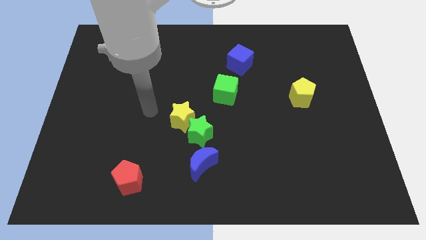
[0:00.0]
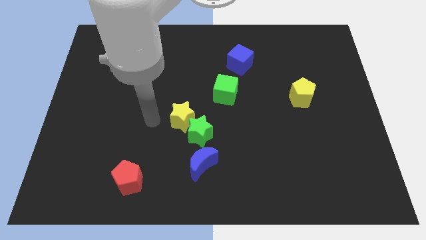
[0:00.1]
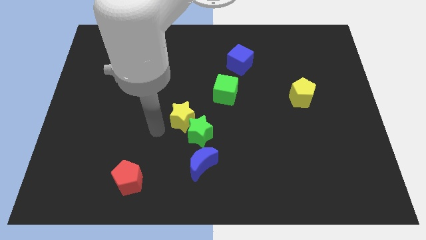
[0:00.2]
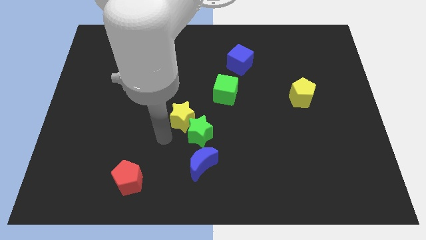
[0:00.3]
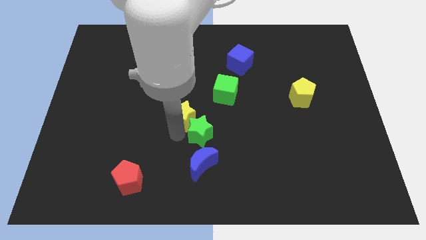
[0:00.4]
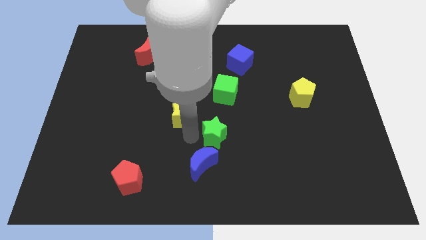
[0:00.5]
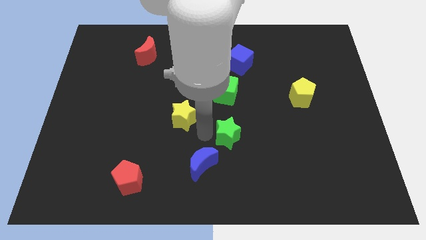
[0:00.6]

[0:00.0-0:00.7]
separate the yellow star from the green star

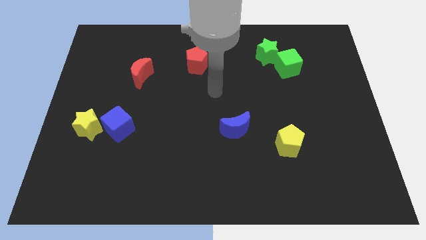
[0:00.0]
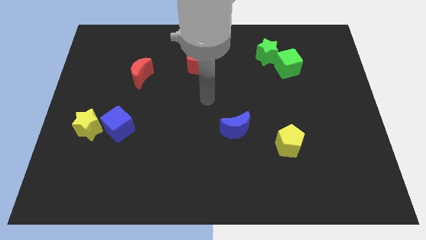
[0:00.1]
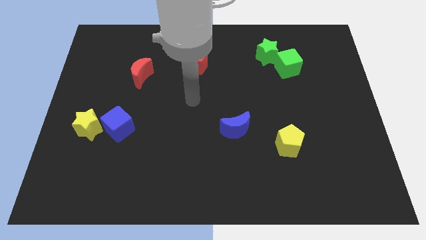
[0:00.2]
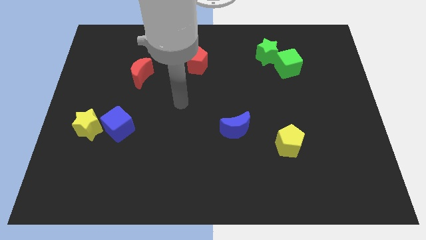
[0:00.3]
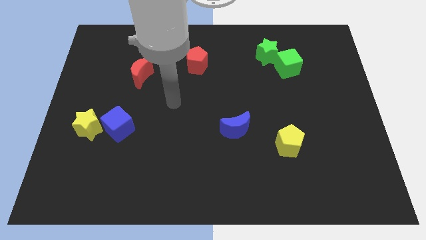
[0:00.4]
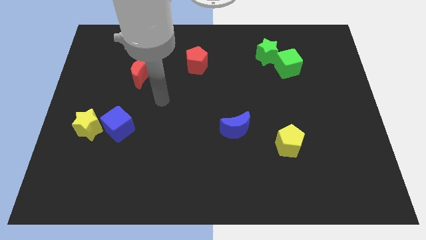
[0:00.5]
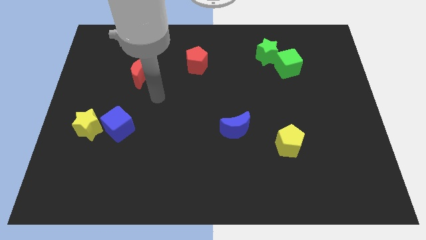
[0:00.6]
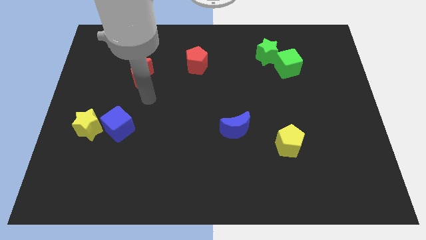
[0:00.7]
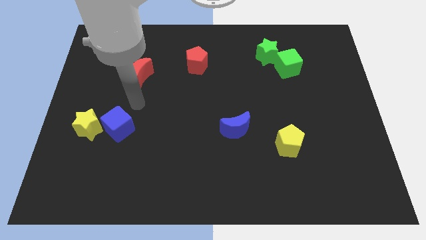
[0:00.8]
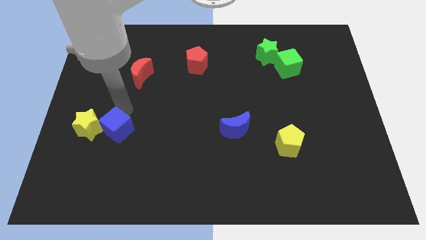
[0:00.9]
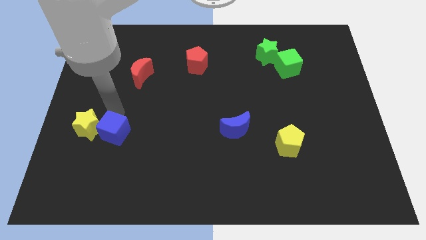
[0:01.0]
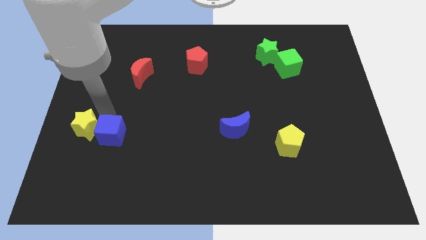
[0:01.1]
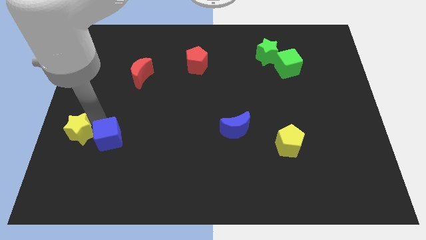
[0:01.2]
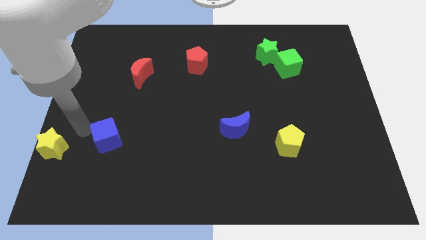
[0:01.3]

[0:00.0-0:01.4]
pull the blue cube apart from the yellow star

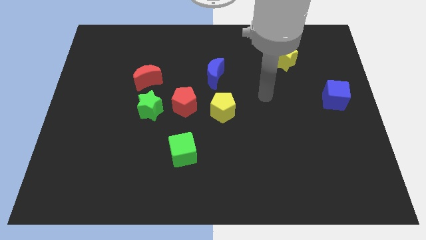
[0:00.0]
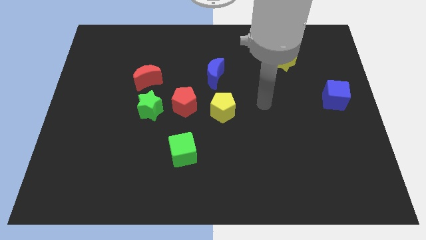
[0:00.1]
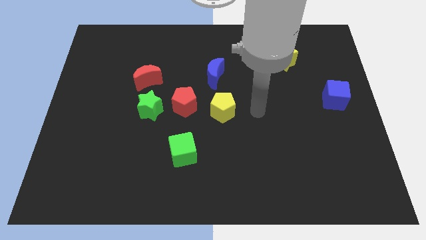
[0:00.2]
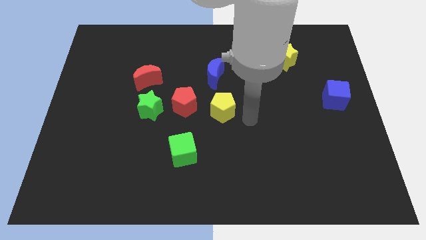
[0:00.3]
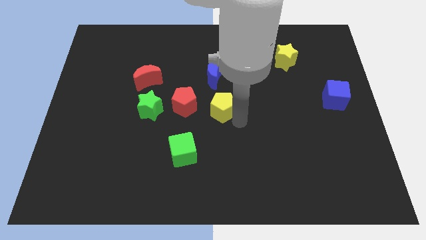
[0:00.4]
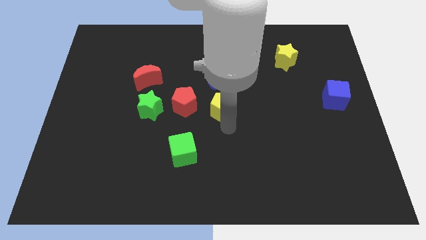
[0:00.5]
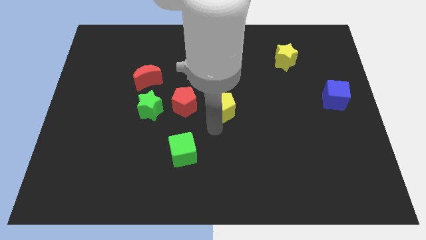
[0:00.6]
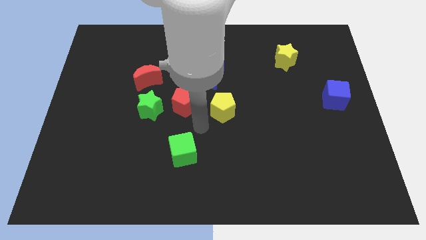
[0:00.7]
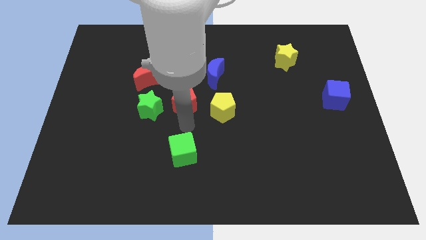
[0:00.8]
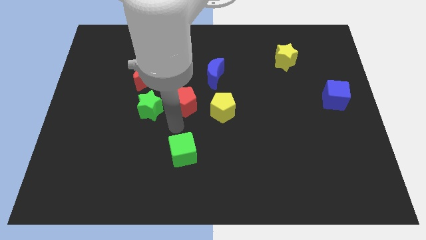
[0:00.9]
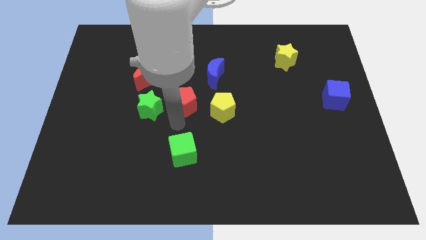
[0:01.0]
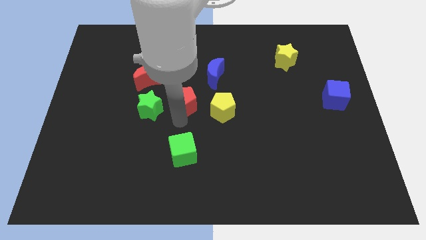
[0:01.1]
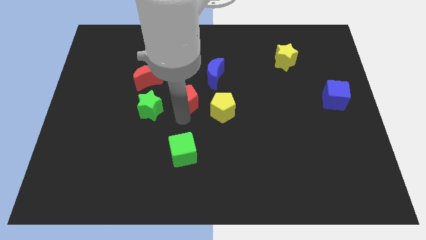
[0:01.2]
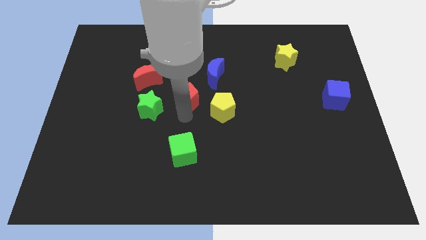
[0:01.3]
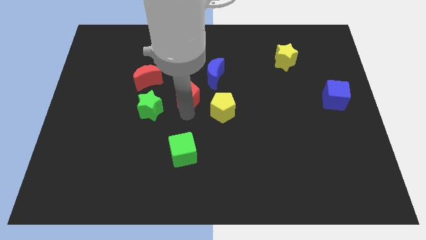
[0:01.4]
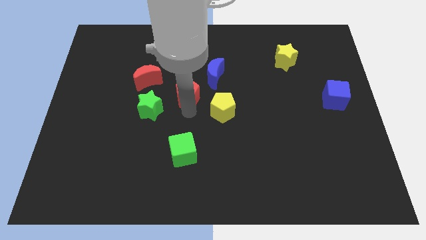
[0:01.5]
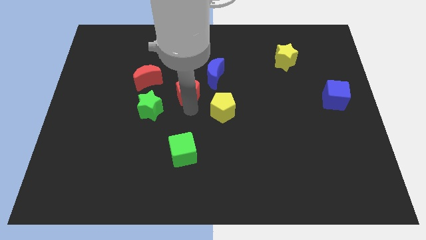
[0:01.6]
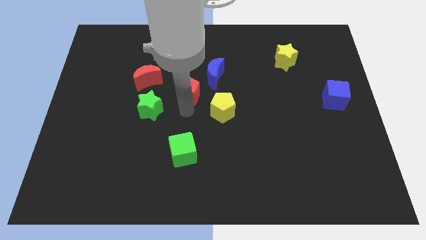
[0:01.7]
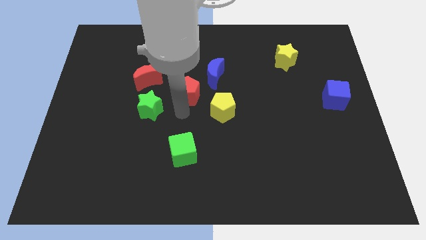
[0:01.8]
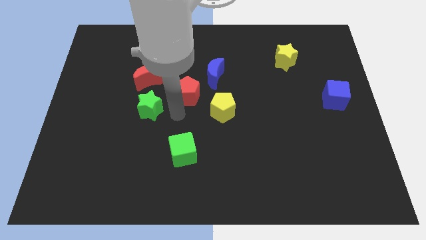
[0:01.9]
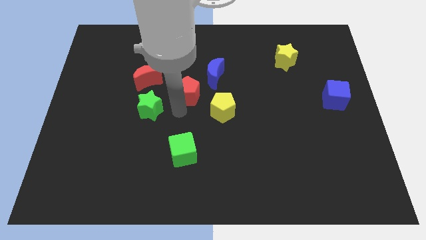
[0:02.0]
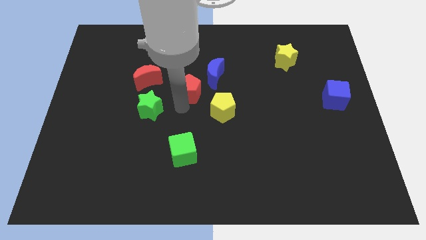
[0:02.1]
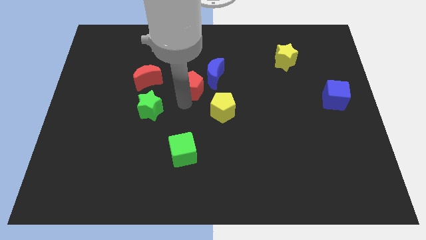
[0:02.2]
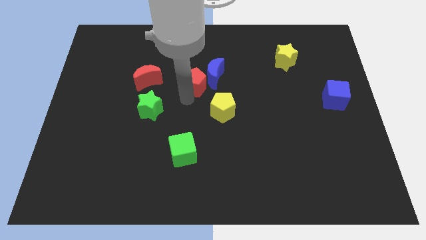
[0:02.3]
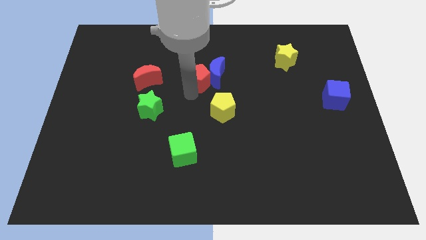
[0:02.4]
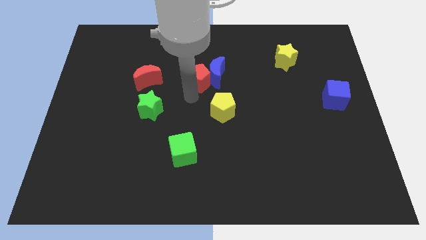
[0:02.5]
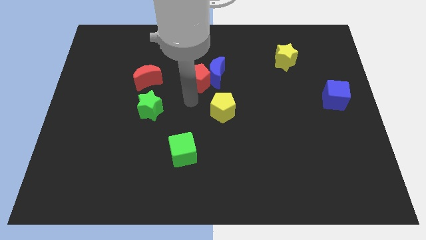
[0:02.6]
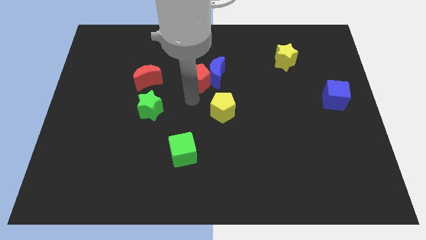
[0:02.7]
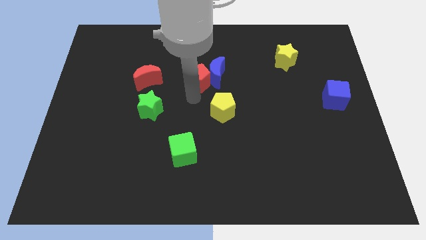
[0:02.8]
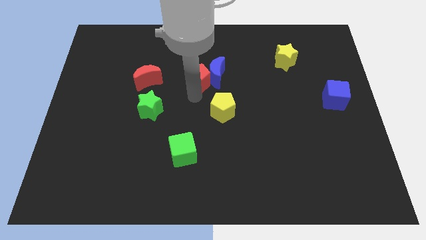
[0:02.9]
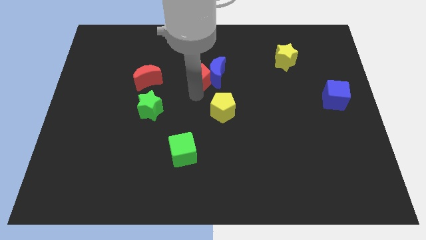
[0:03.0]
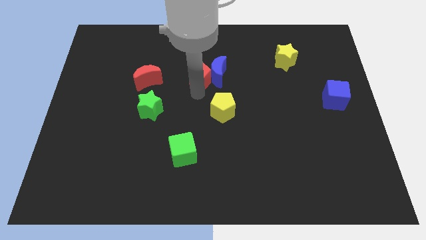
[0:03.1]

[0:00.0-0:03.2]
pull the red pentagon apart from the green star and yellow pentagon

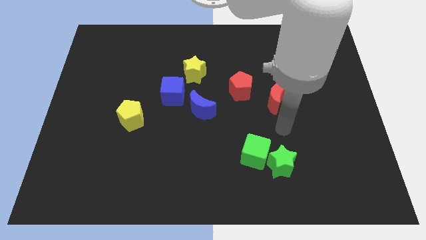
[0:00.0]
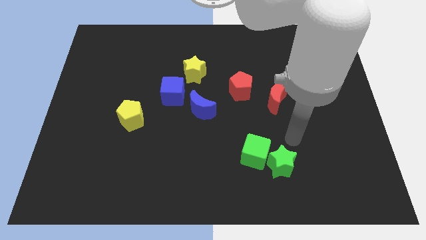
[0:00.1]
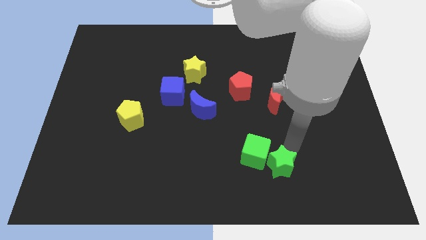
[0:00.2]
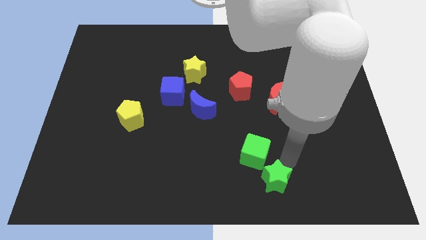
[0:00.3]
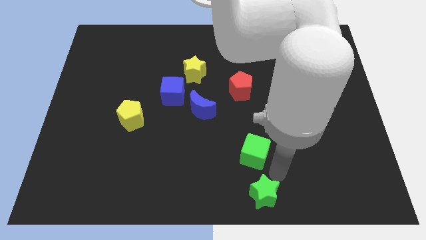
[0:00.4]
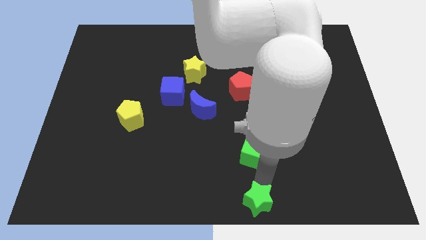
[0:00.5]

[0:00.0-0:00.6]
separate the green cube from the green star

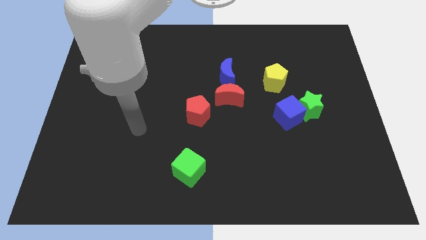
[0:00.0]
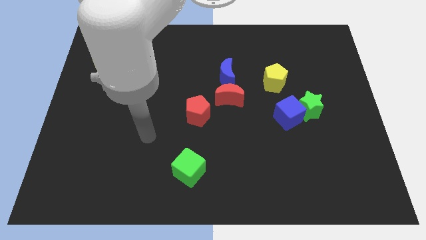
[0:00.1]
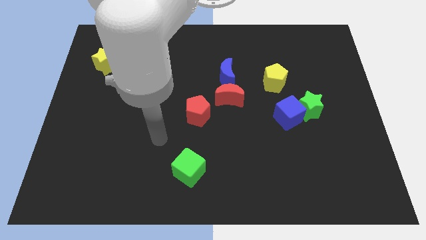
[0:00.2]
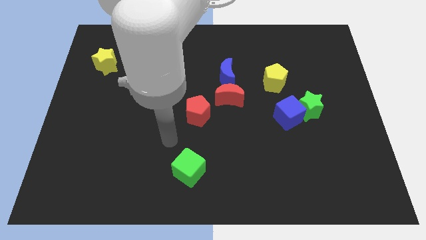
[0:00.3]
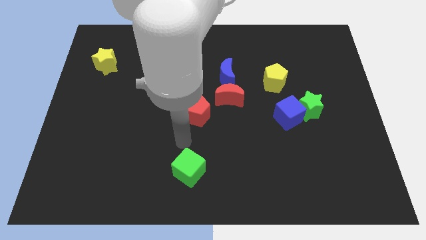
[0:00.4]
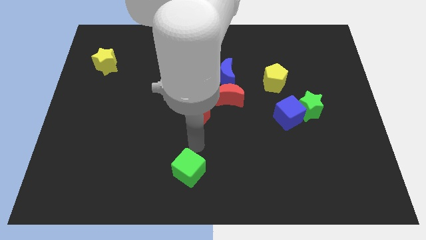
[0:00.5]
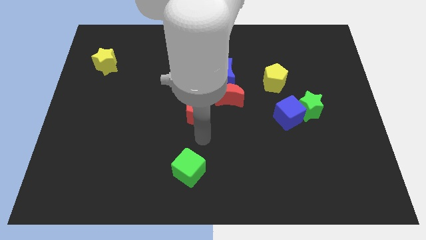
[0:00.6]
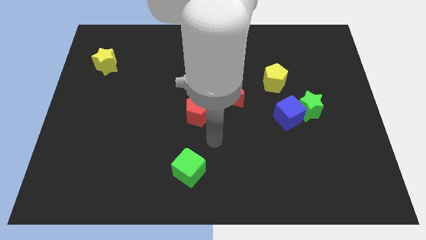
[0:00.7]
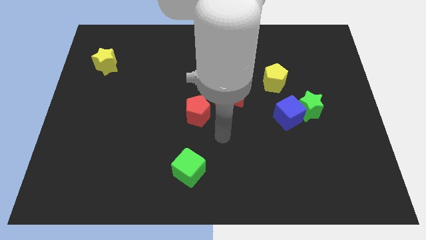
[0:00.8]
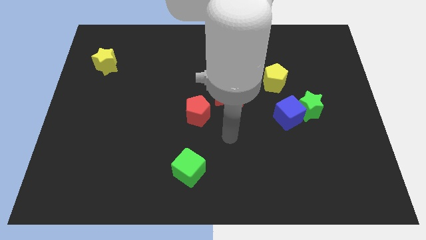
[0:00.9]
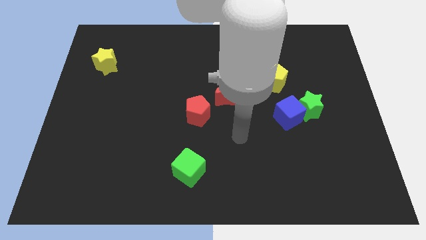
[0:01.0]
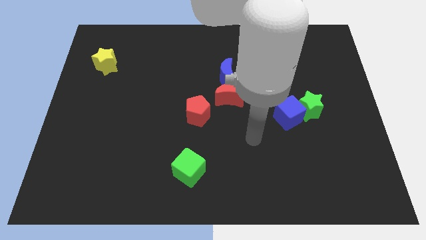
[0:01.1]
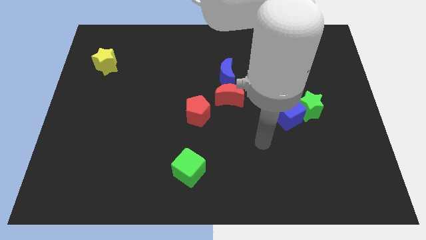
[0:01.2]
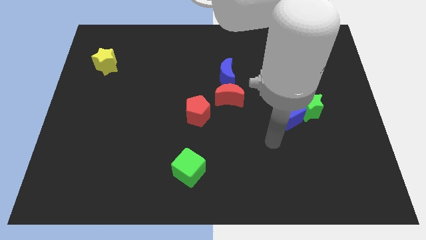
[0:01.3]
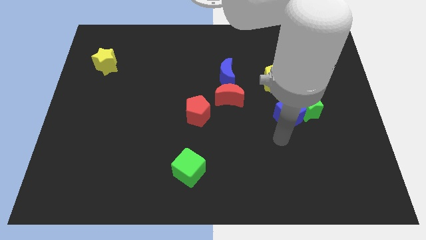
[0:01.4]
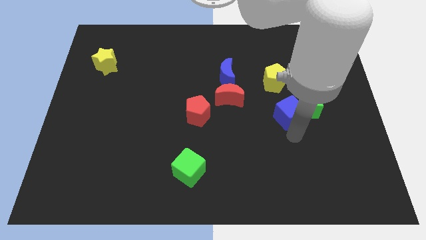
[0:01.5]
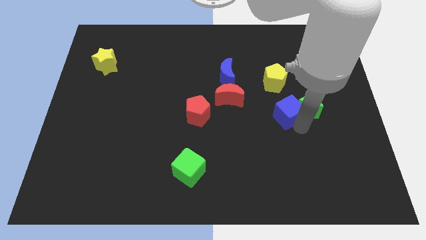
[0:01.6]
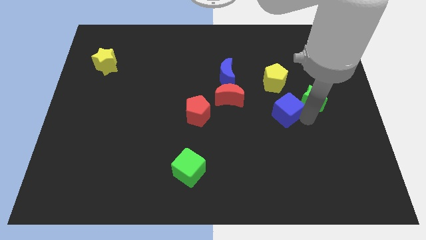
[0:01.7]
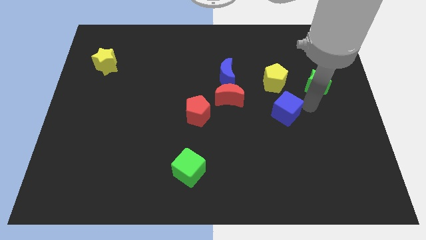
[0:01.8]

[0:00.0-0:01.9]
separate the blue cube from the green star

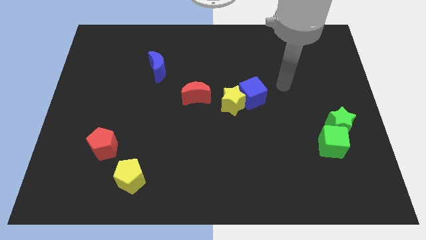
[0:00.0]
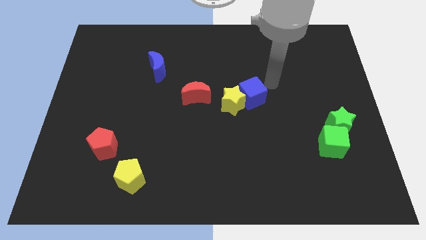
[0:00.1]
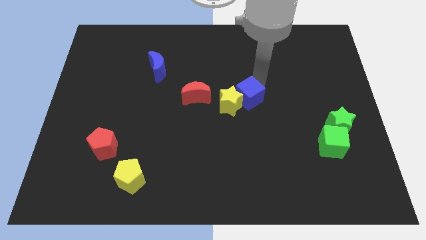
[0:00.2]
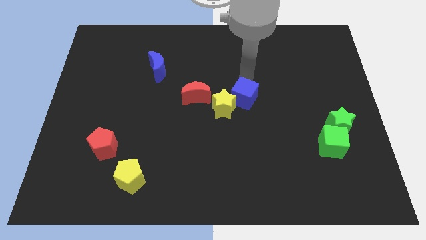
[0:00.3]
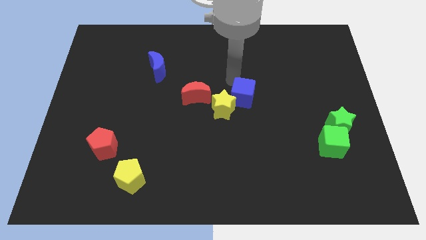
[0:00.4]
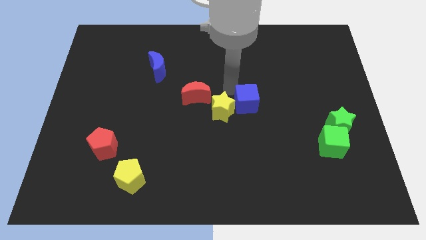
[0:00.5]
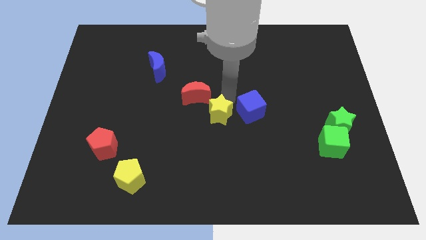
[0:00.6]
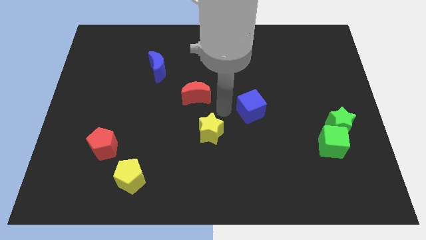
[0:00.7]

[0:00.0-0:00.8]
move the blue cube away from the yellow star

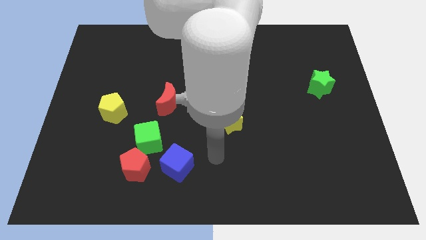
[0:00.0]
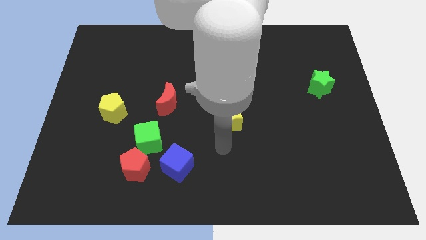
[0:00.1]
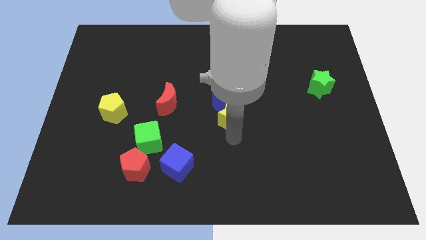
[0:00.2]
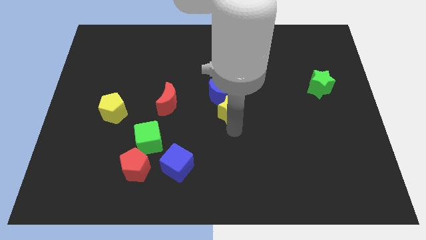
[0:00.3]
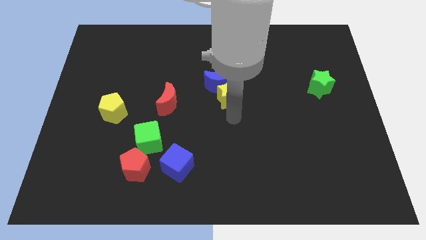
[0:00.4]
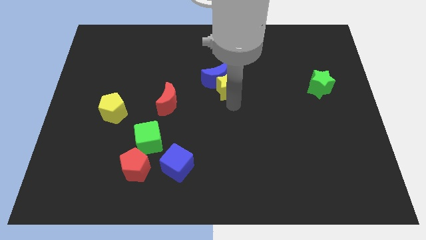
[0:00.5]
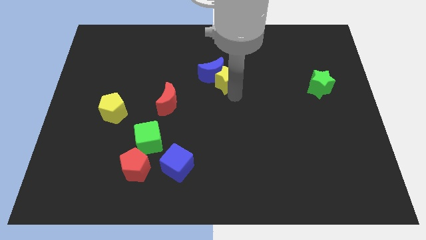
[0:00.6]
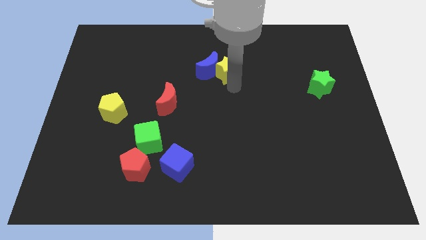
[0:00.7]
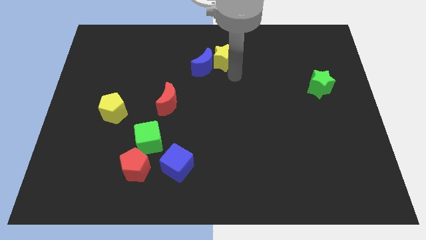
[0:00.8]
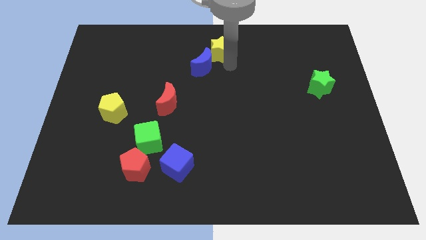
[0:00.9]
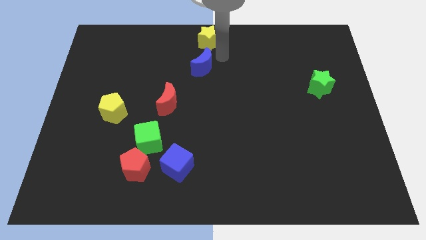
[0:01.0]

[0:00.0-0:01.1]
separate the blue moon from the yellow star
